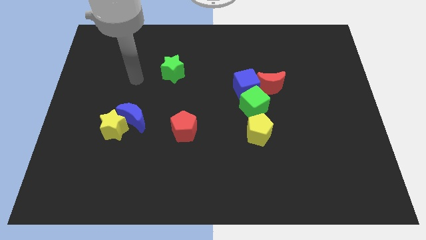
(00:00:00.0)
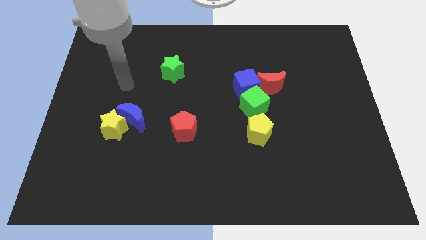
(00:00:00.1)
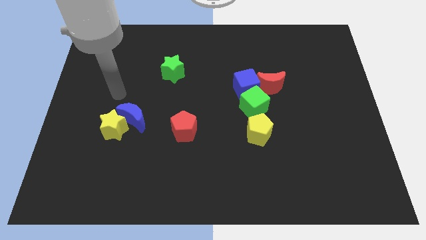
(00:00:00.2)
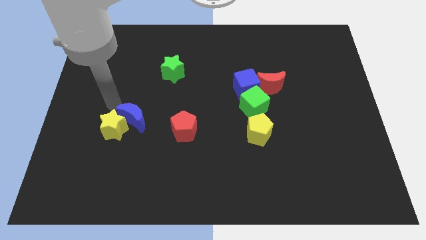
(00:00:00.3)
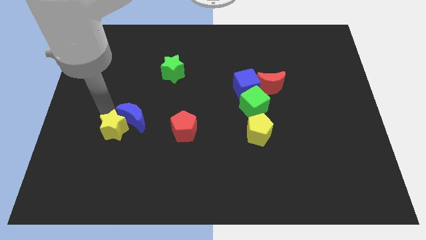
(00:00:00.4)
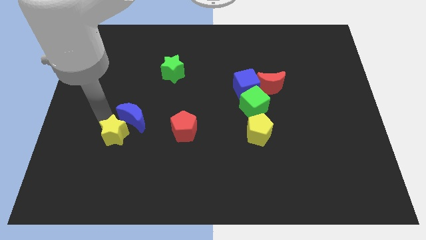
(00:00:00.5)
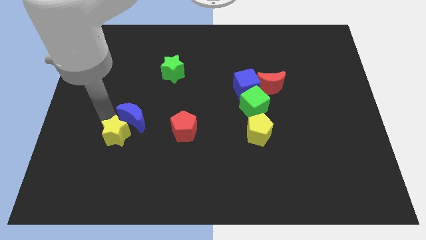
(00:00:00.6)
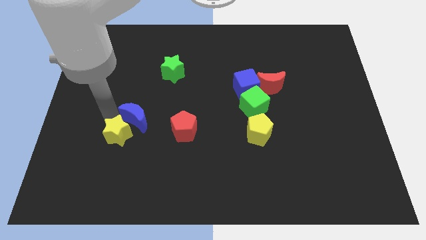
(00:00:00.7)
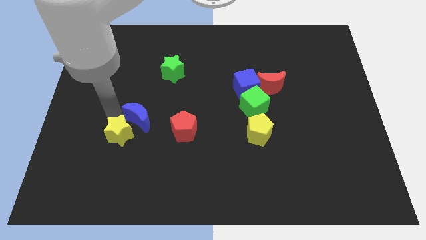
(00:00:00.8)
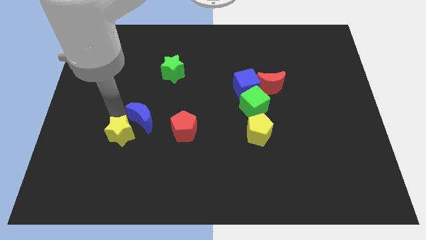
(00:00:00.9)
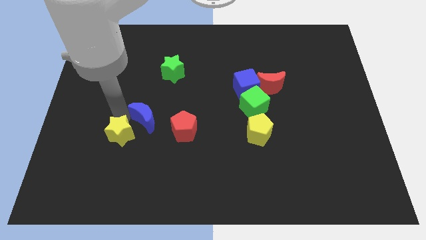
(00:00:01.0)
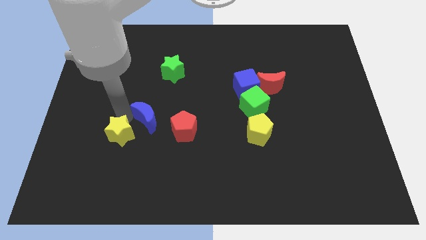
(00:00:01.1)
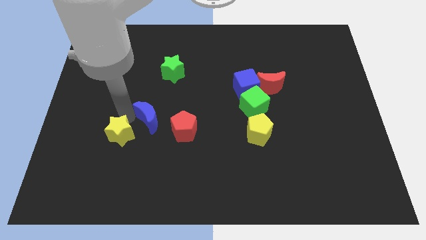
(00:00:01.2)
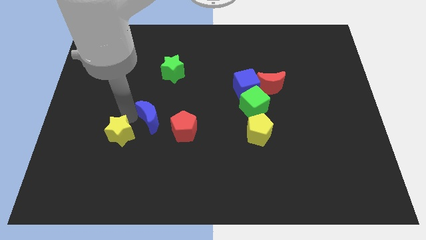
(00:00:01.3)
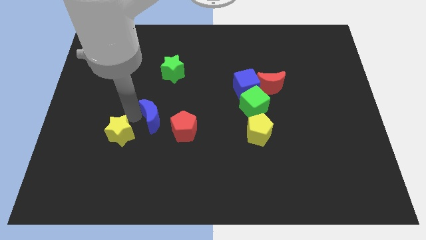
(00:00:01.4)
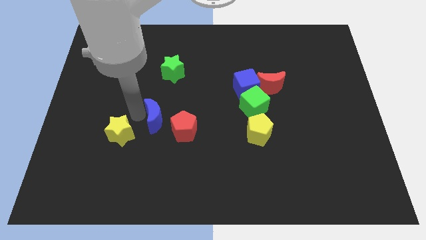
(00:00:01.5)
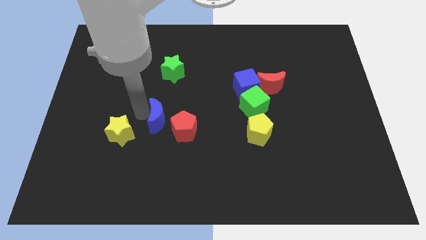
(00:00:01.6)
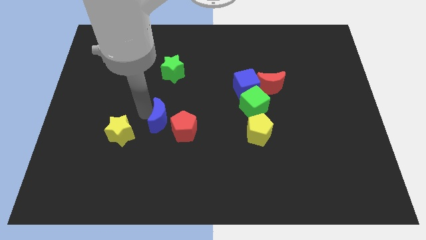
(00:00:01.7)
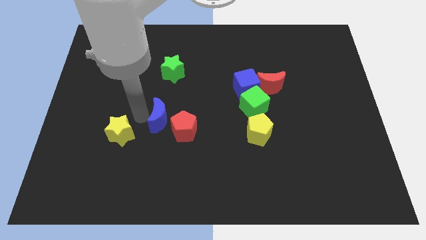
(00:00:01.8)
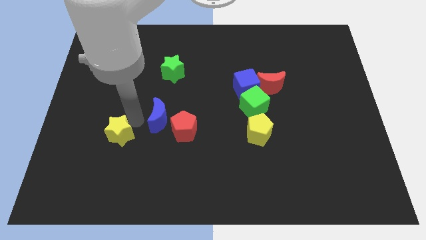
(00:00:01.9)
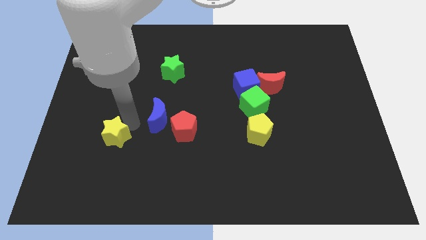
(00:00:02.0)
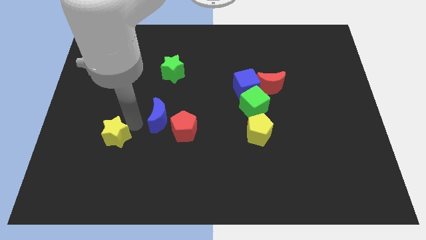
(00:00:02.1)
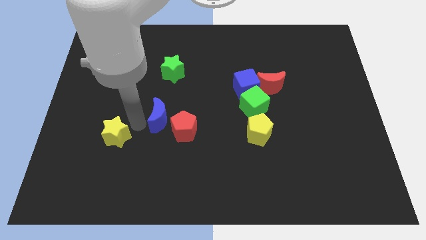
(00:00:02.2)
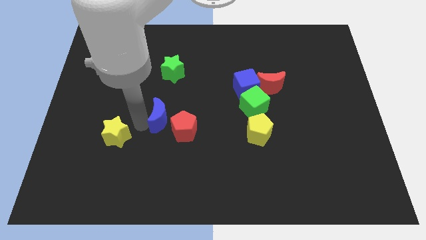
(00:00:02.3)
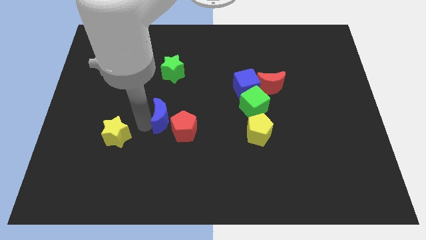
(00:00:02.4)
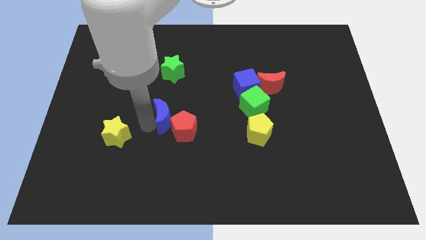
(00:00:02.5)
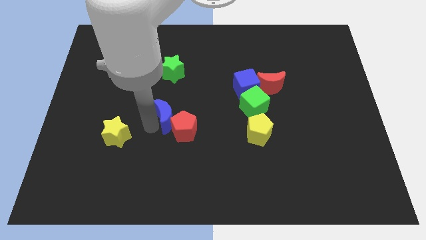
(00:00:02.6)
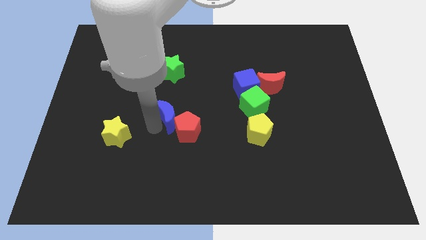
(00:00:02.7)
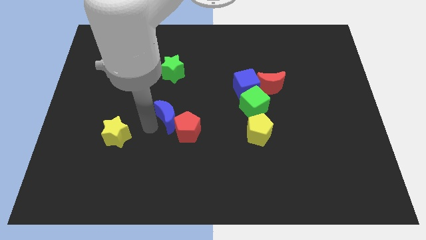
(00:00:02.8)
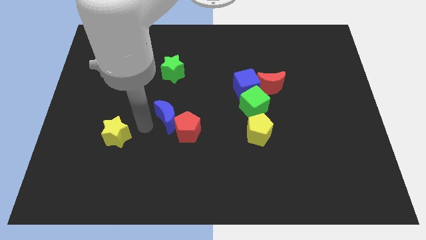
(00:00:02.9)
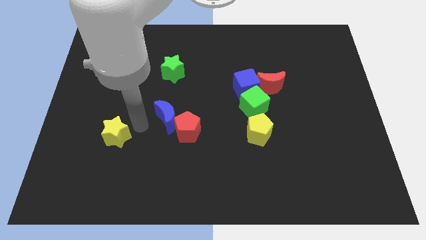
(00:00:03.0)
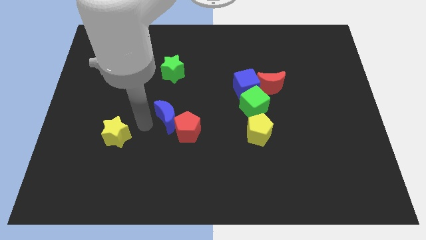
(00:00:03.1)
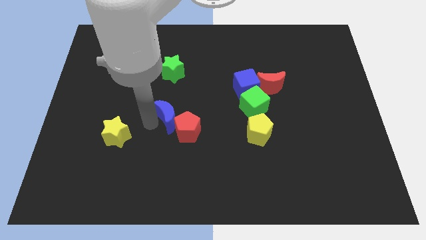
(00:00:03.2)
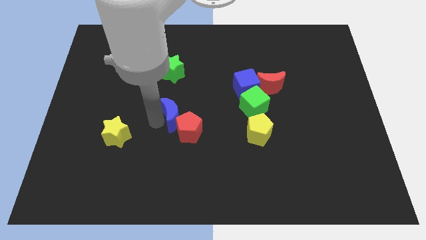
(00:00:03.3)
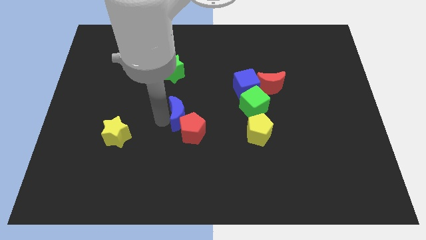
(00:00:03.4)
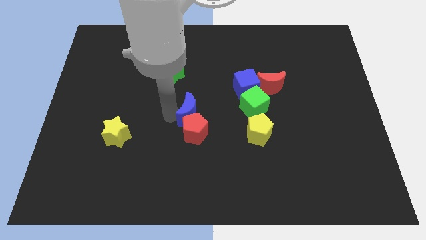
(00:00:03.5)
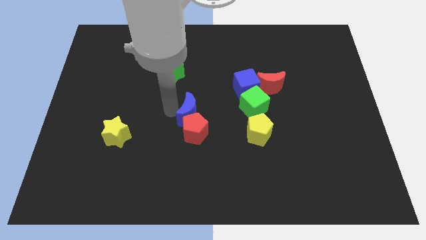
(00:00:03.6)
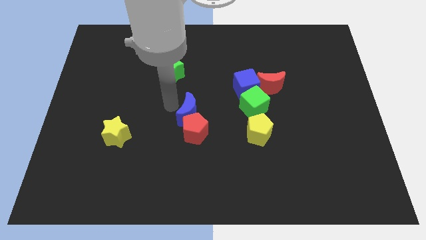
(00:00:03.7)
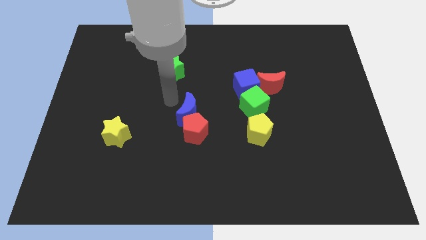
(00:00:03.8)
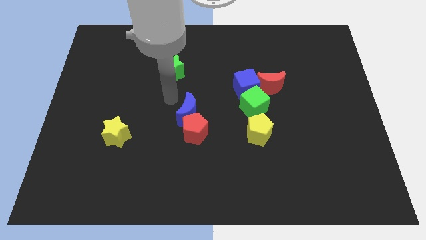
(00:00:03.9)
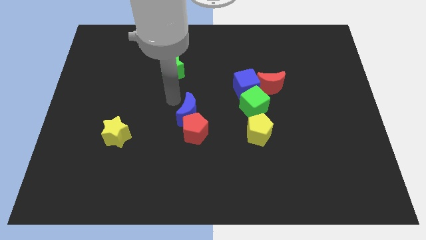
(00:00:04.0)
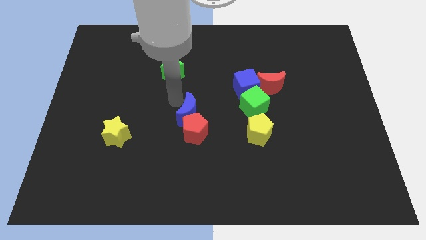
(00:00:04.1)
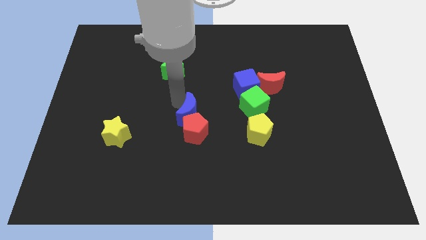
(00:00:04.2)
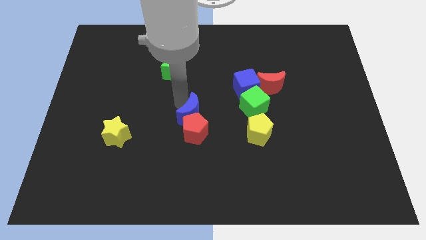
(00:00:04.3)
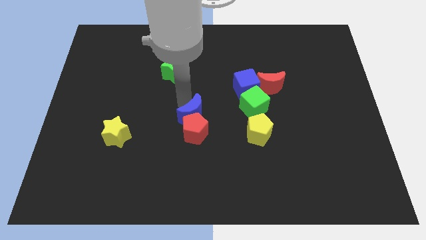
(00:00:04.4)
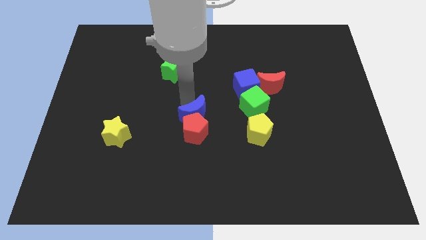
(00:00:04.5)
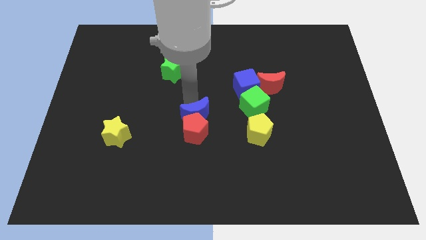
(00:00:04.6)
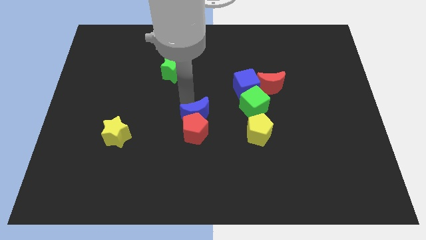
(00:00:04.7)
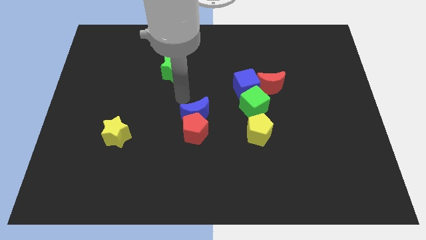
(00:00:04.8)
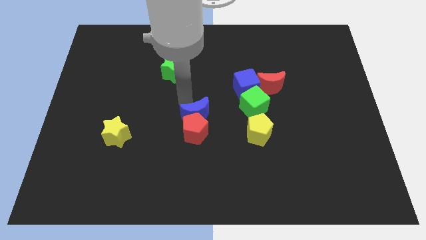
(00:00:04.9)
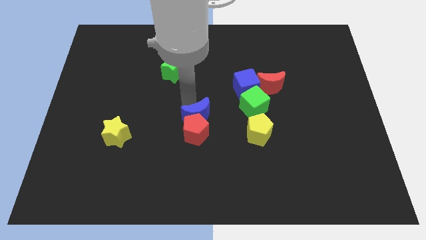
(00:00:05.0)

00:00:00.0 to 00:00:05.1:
move the blue moon just left of the yellow pentagon

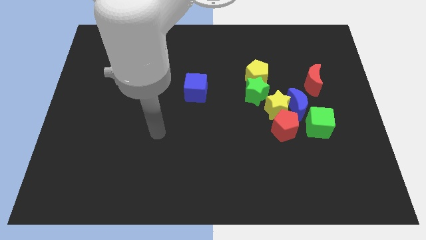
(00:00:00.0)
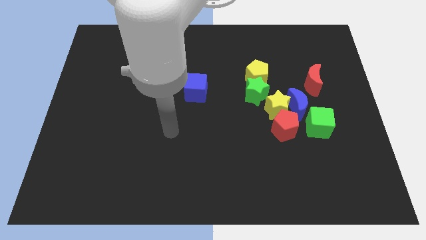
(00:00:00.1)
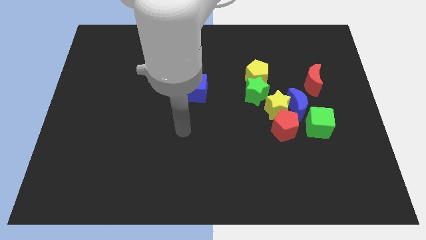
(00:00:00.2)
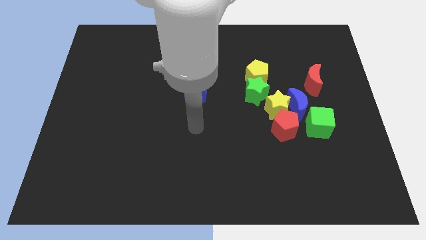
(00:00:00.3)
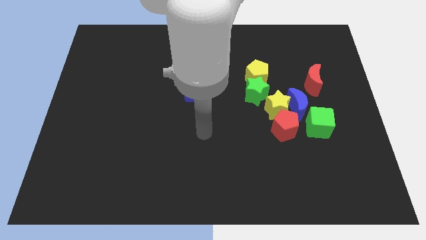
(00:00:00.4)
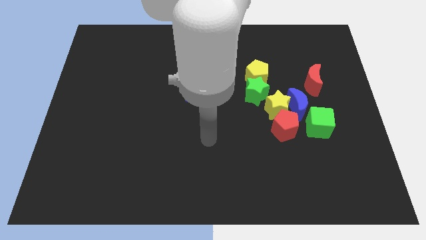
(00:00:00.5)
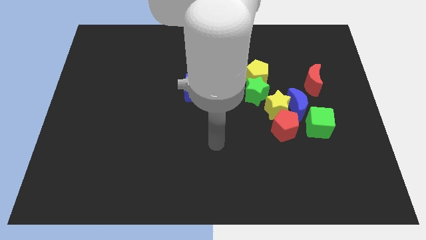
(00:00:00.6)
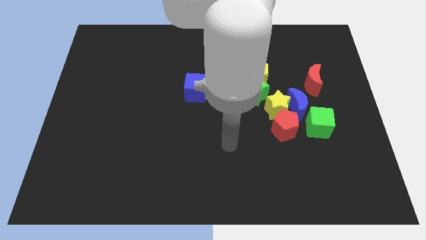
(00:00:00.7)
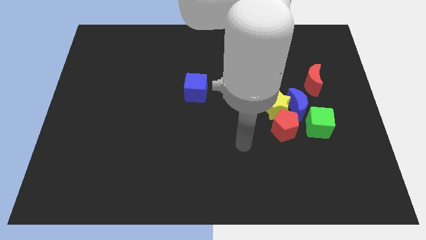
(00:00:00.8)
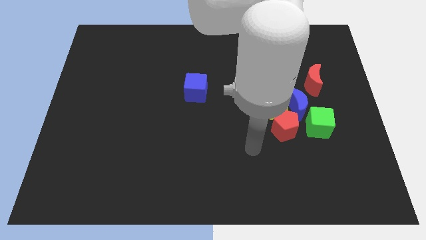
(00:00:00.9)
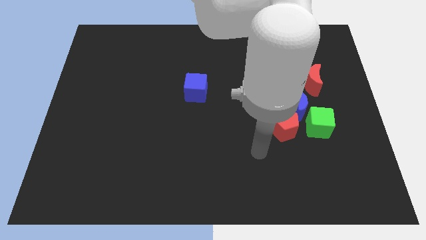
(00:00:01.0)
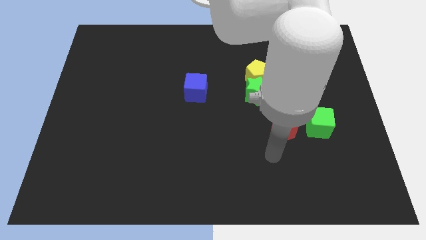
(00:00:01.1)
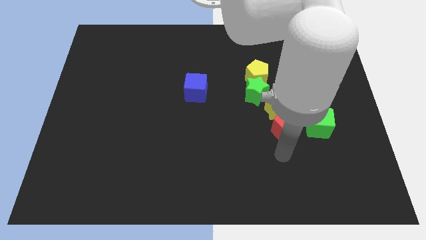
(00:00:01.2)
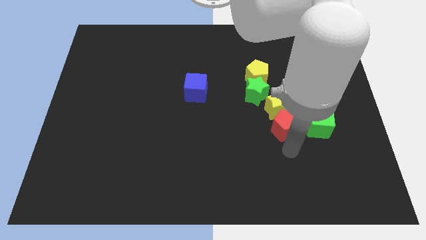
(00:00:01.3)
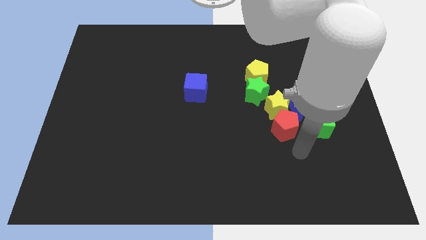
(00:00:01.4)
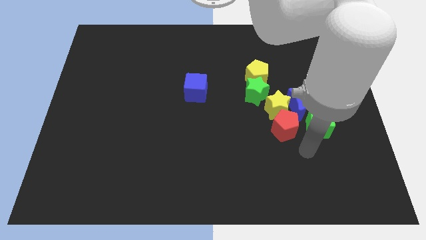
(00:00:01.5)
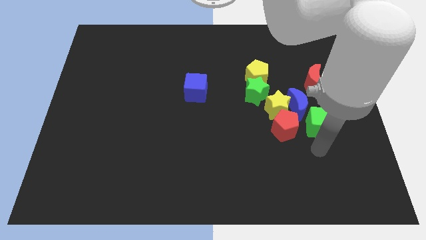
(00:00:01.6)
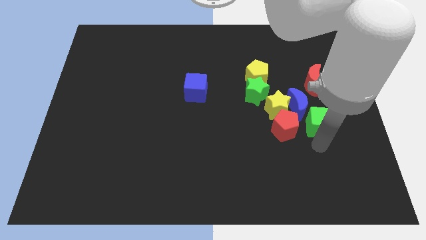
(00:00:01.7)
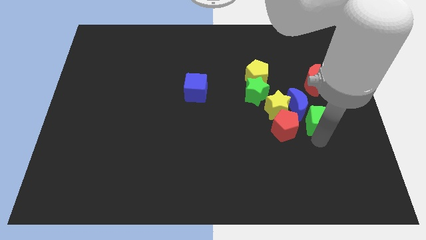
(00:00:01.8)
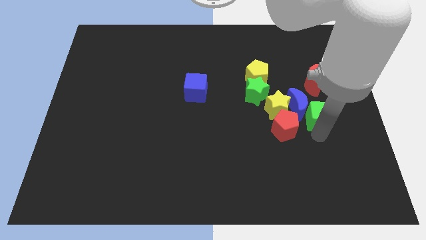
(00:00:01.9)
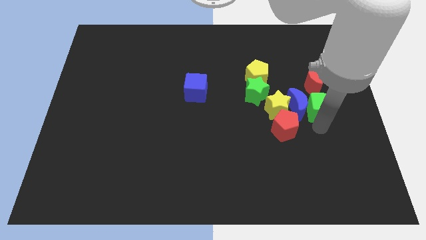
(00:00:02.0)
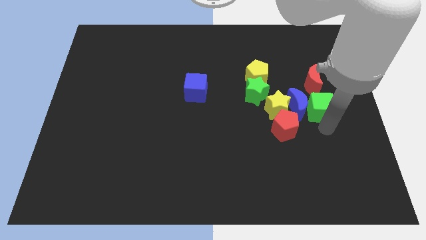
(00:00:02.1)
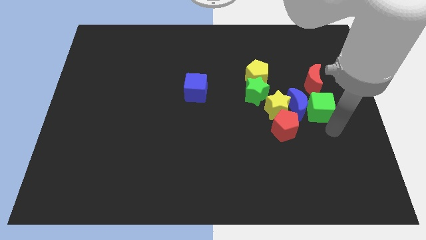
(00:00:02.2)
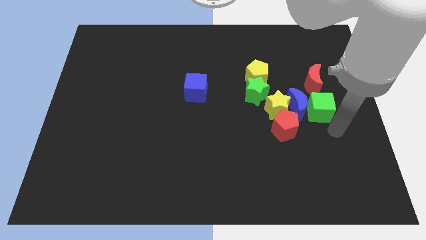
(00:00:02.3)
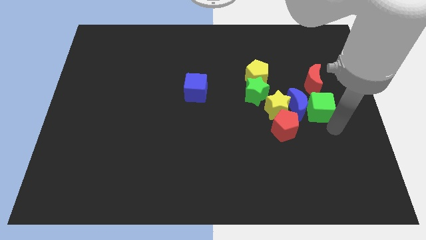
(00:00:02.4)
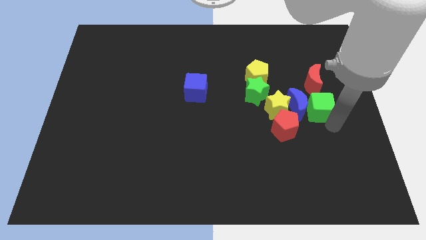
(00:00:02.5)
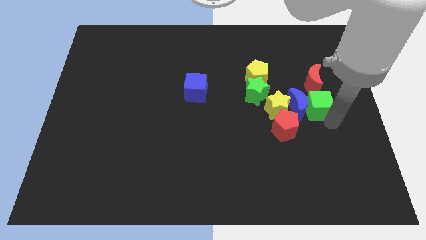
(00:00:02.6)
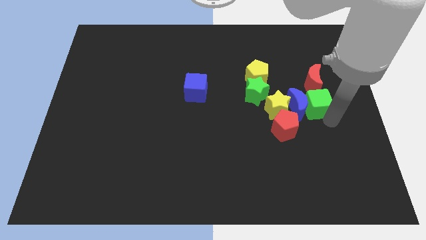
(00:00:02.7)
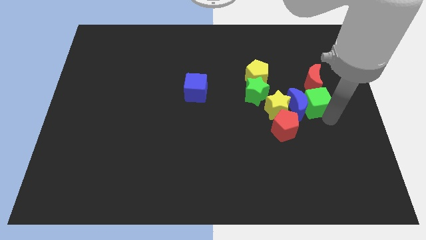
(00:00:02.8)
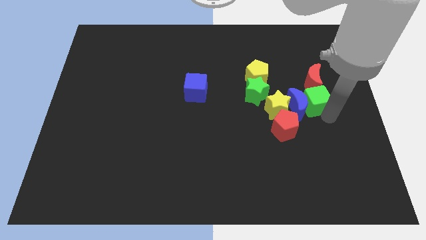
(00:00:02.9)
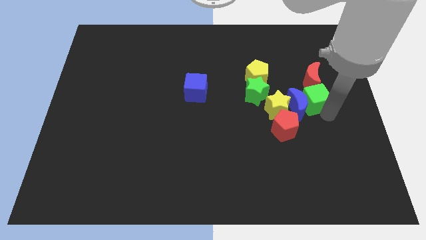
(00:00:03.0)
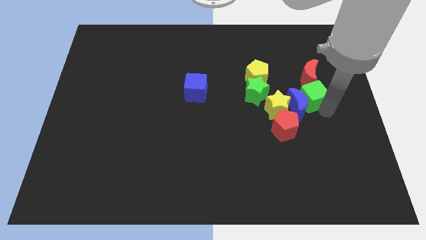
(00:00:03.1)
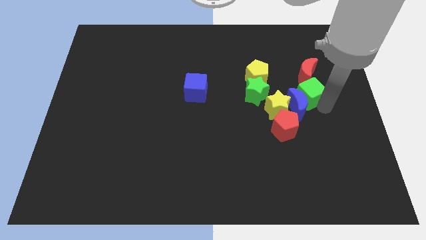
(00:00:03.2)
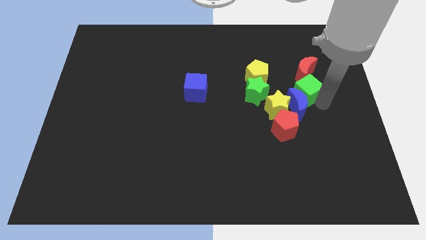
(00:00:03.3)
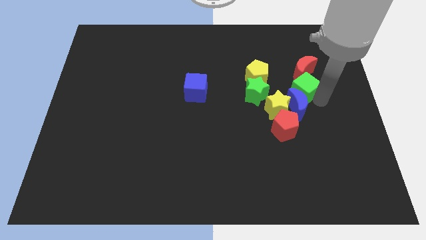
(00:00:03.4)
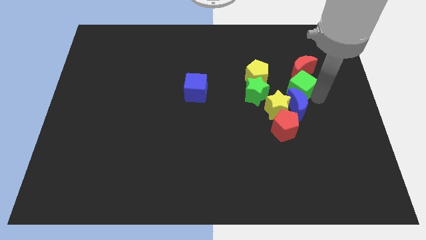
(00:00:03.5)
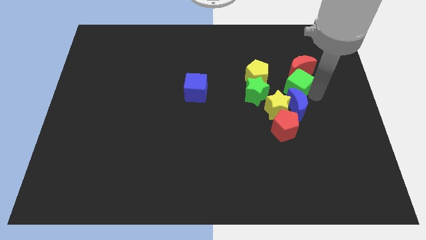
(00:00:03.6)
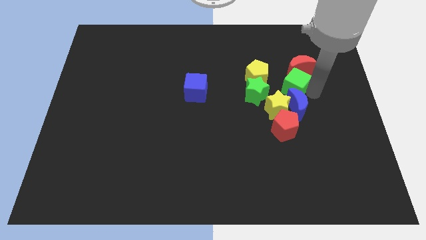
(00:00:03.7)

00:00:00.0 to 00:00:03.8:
move the green cube to the top side of the yellow star
